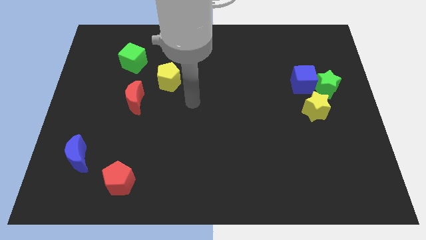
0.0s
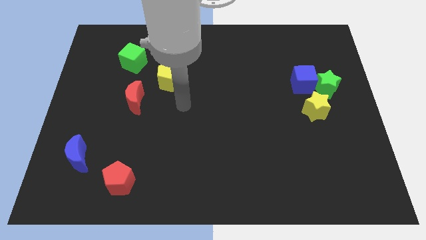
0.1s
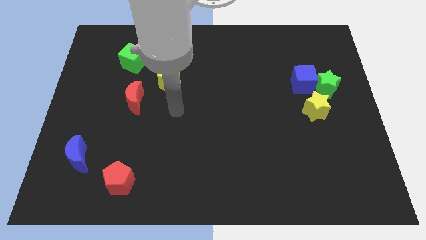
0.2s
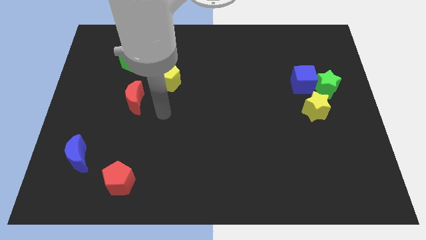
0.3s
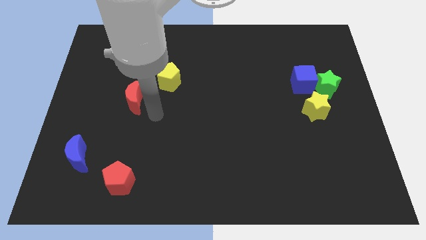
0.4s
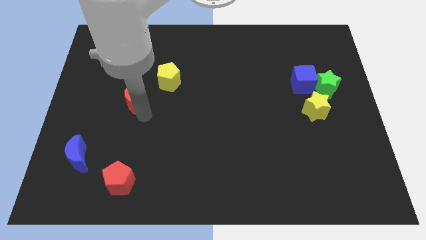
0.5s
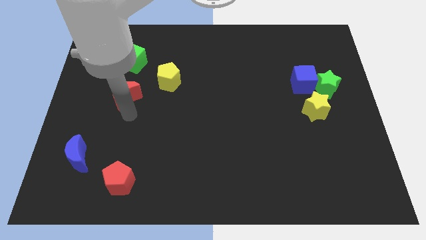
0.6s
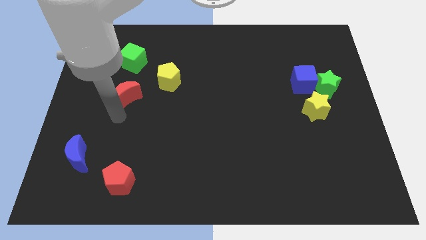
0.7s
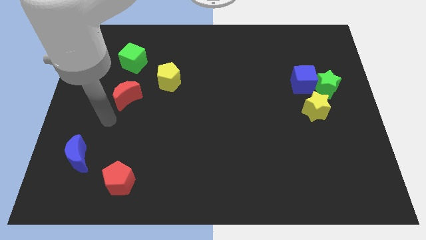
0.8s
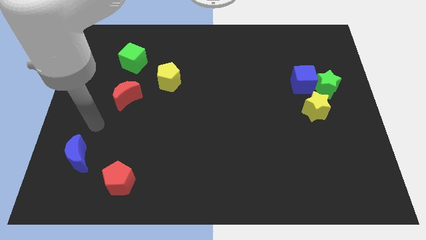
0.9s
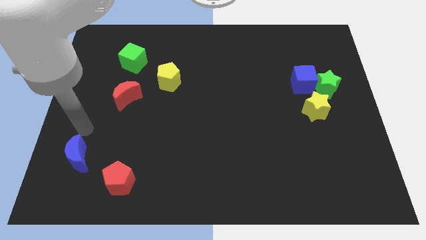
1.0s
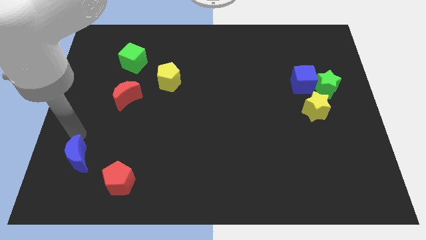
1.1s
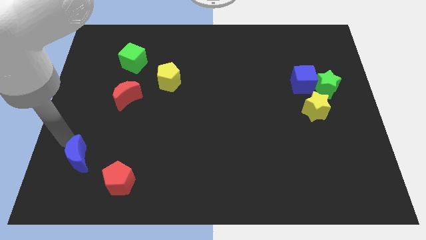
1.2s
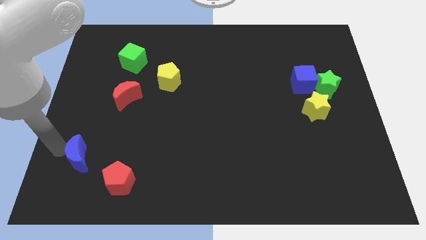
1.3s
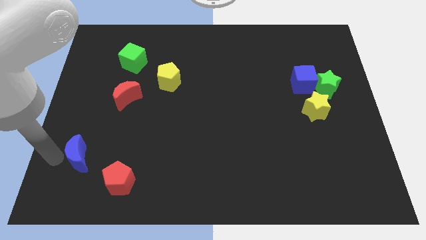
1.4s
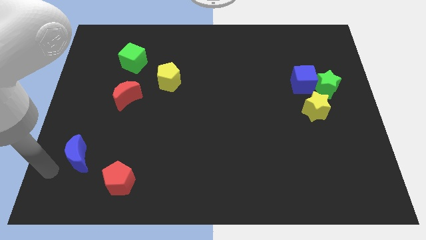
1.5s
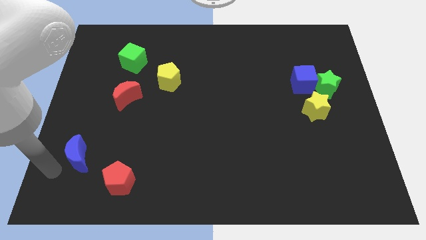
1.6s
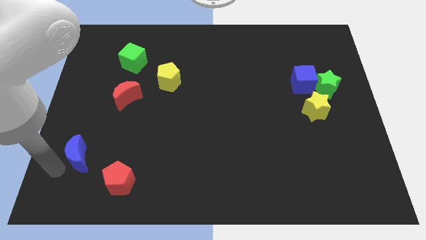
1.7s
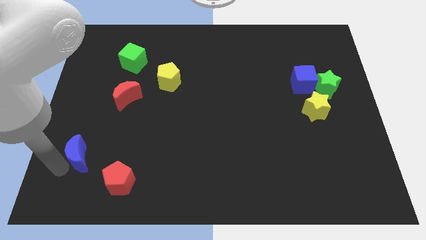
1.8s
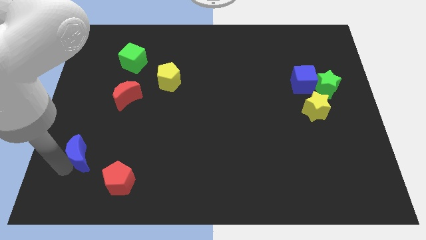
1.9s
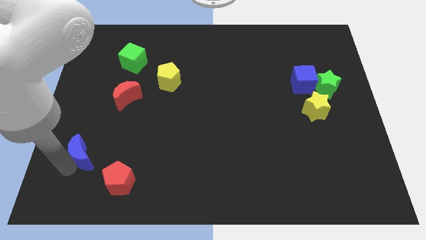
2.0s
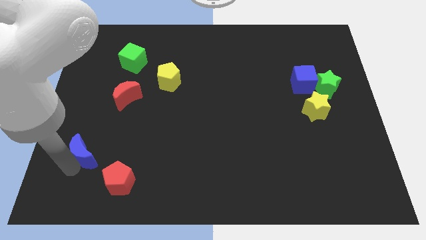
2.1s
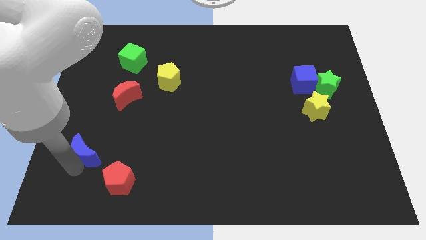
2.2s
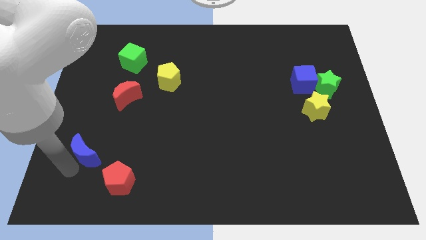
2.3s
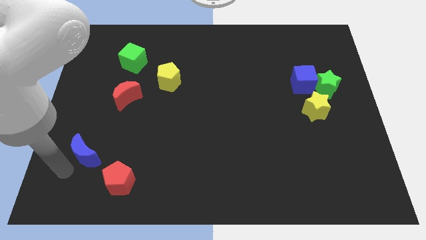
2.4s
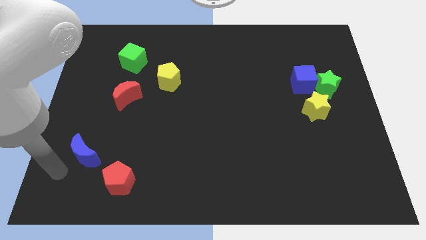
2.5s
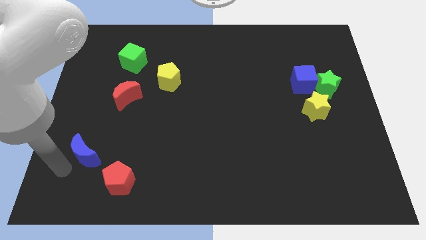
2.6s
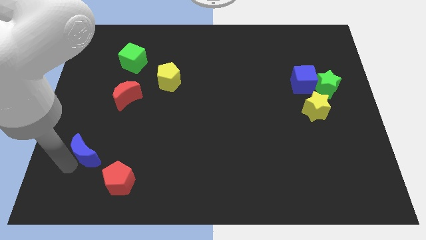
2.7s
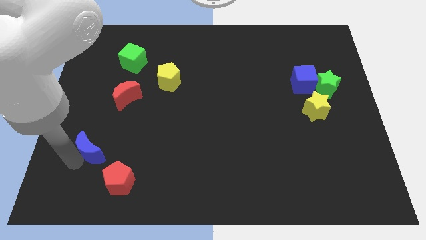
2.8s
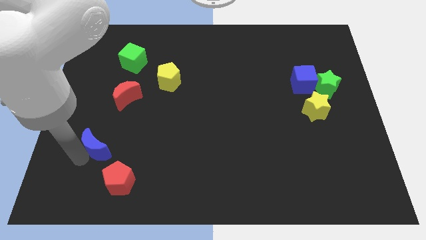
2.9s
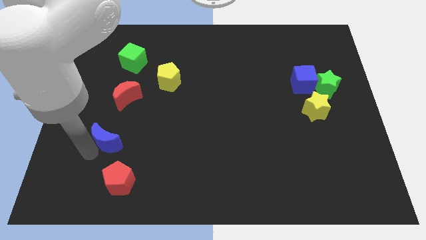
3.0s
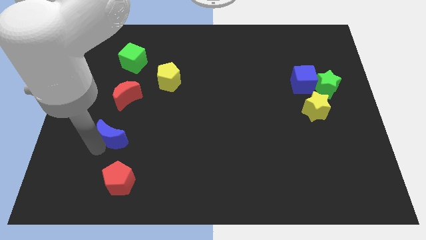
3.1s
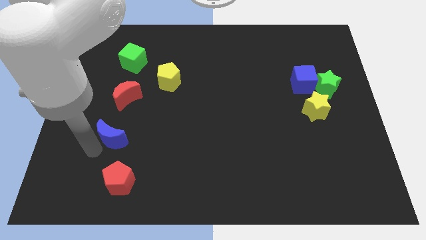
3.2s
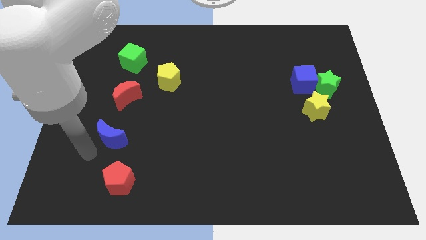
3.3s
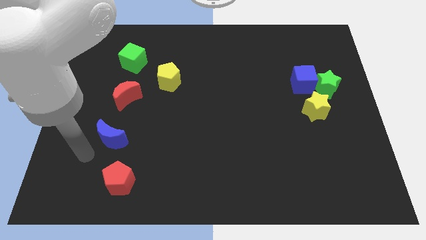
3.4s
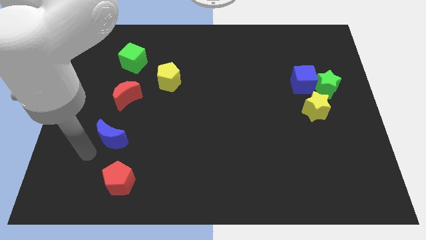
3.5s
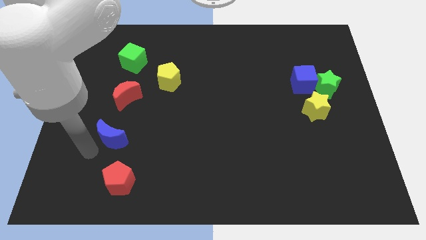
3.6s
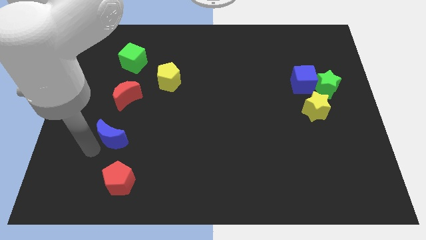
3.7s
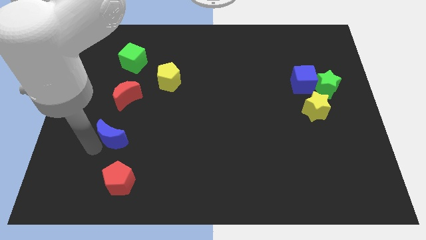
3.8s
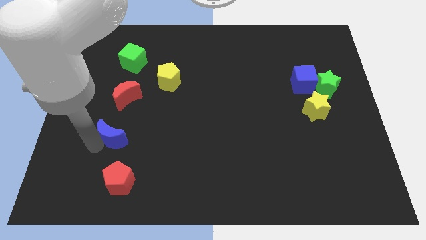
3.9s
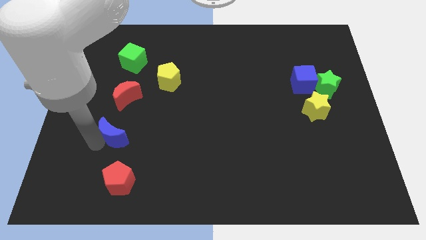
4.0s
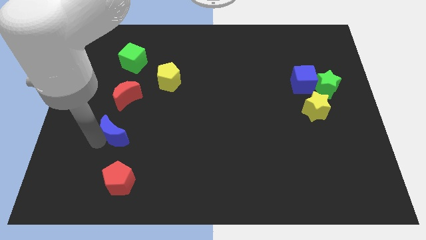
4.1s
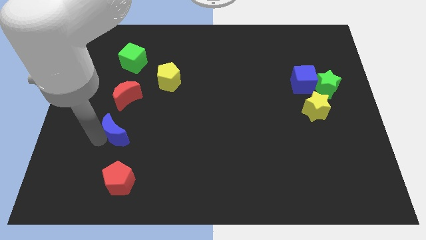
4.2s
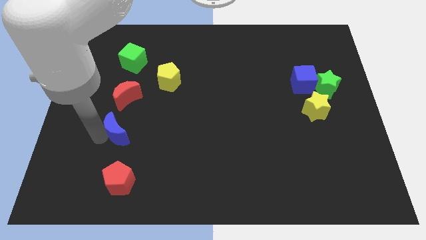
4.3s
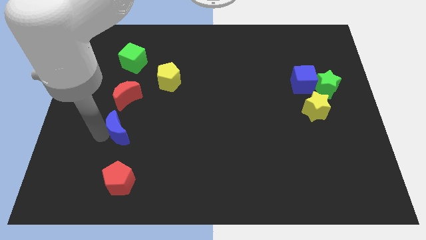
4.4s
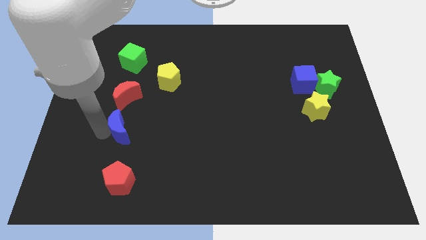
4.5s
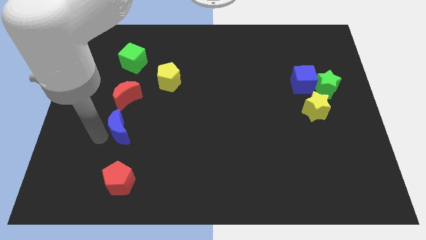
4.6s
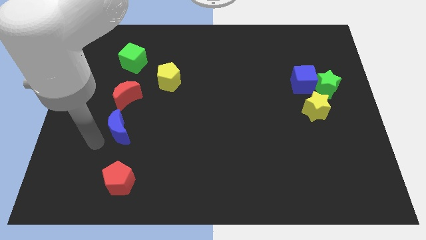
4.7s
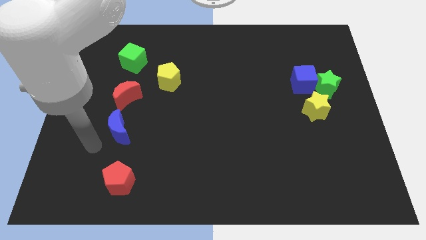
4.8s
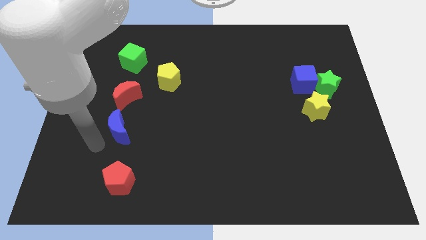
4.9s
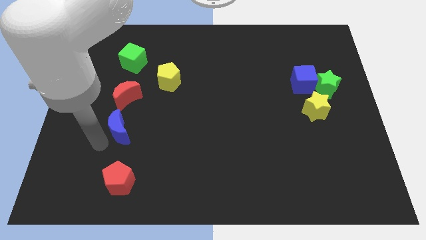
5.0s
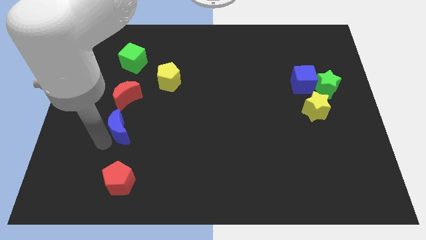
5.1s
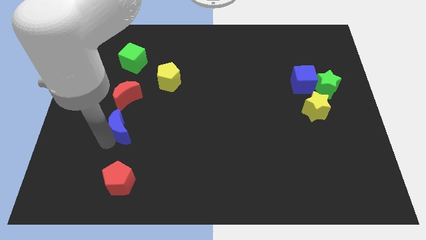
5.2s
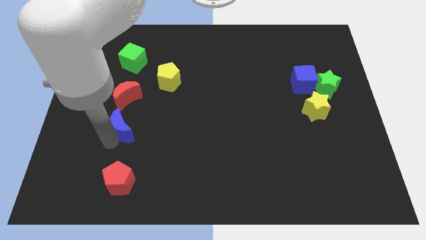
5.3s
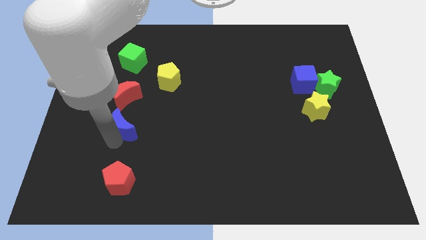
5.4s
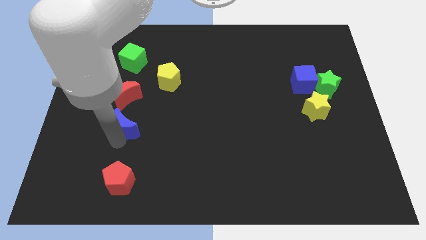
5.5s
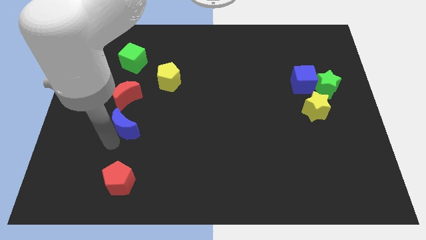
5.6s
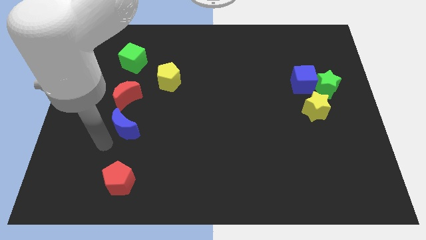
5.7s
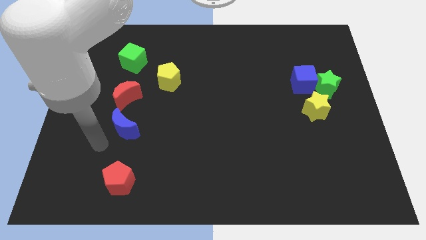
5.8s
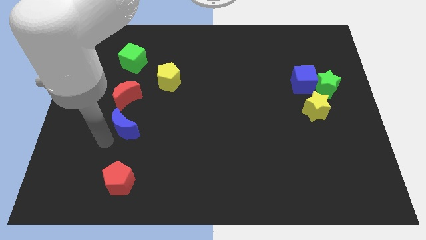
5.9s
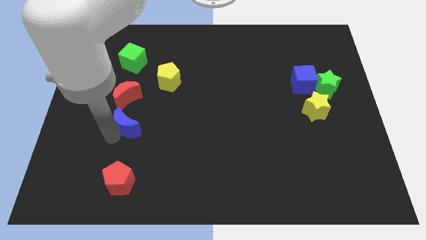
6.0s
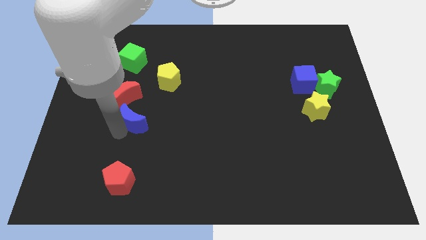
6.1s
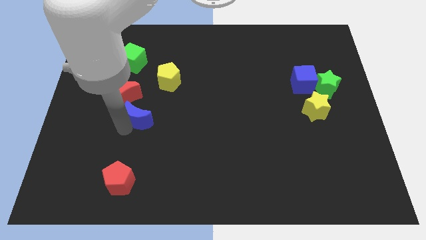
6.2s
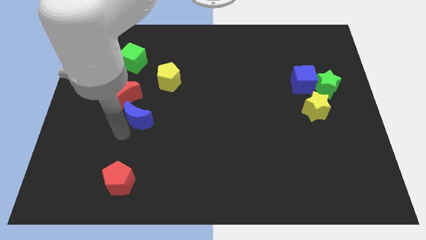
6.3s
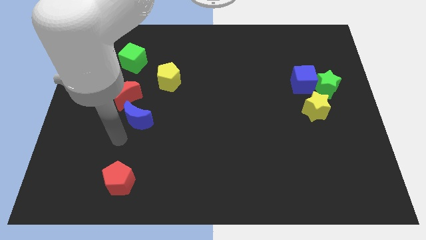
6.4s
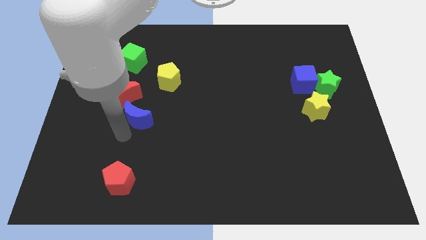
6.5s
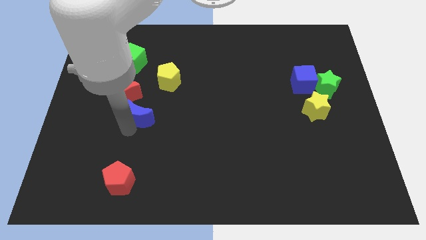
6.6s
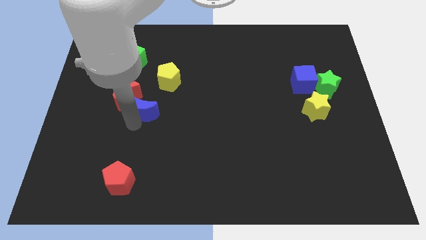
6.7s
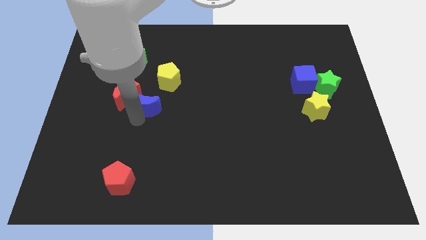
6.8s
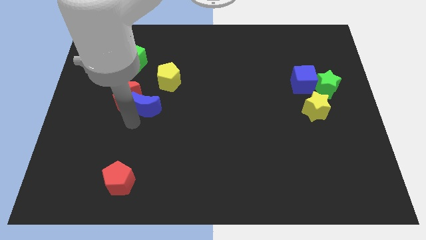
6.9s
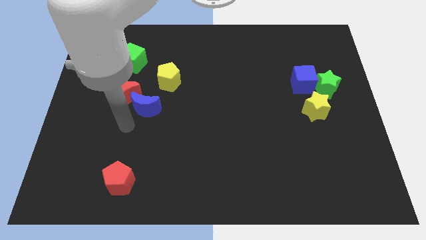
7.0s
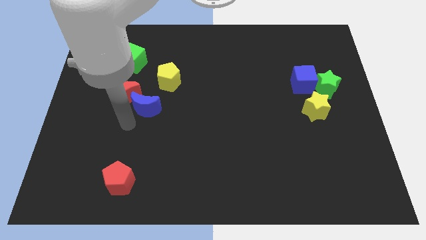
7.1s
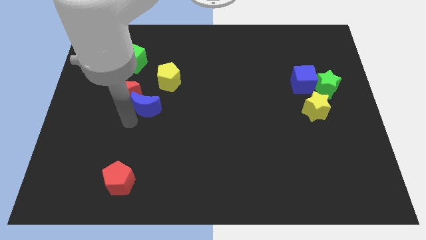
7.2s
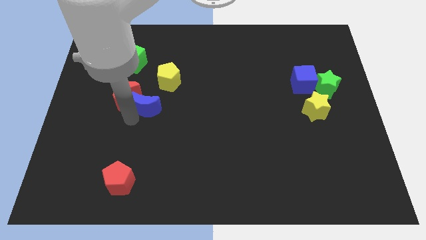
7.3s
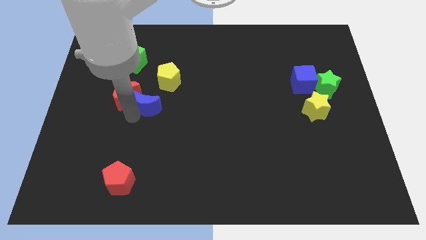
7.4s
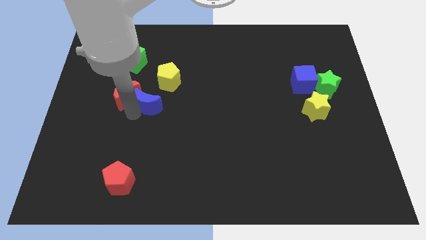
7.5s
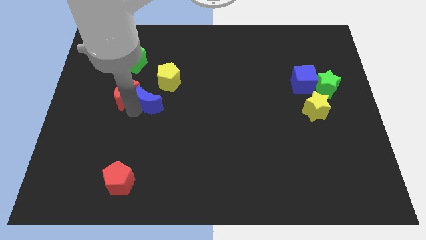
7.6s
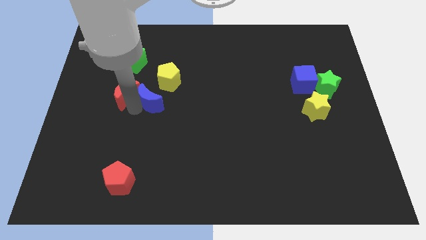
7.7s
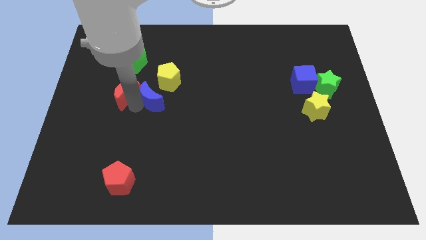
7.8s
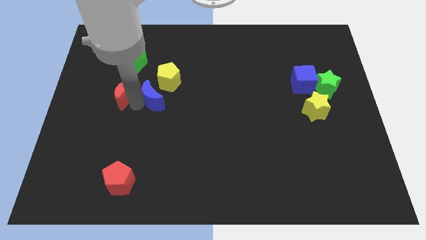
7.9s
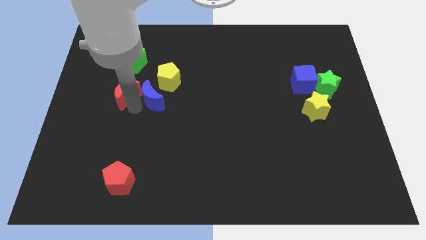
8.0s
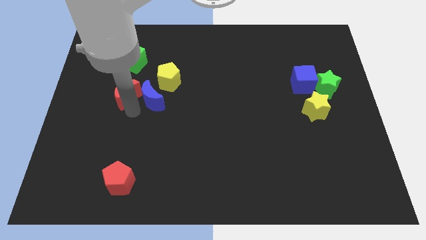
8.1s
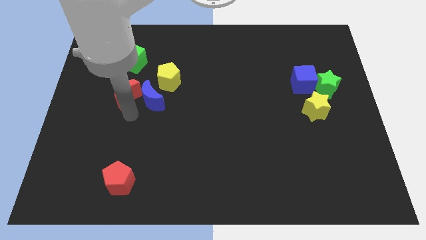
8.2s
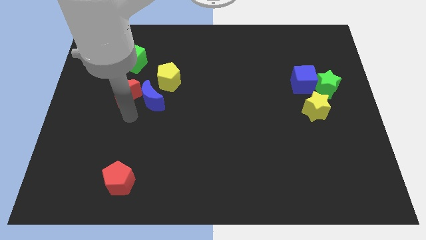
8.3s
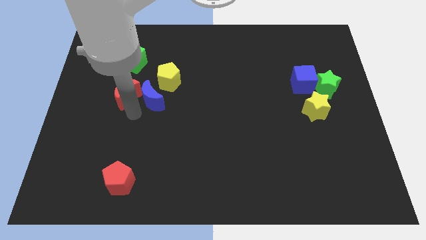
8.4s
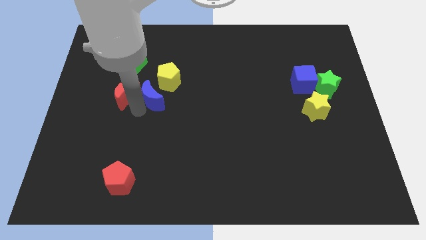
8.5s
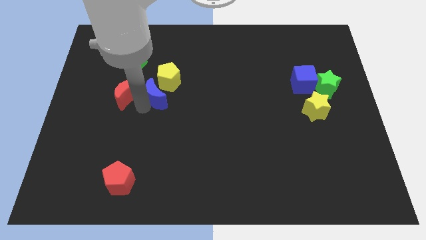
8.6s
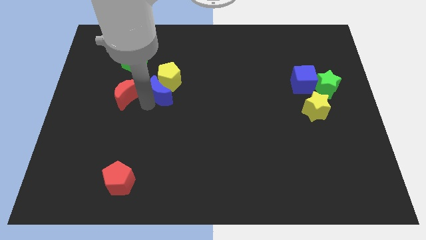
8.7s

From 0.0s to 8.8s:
slide the blue moon towards the yellow pentagon
